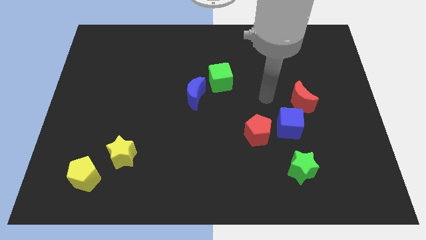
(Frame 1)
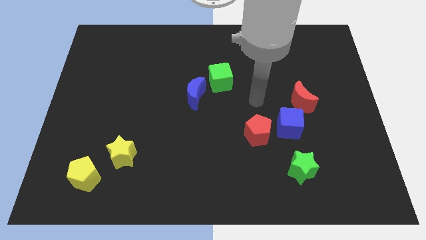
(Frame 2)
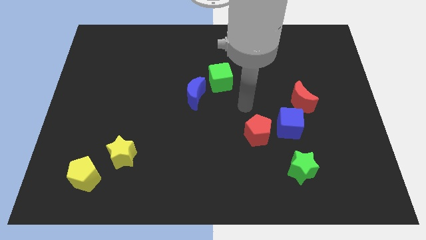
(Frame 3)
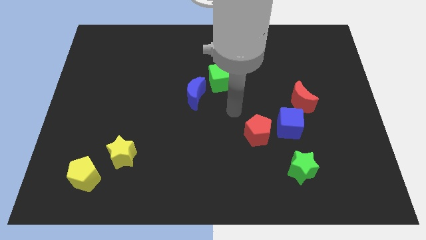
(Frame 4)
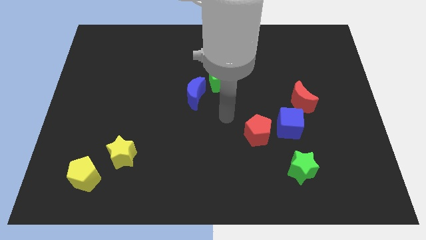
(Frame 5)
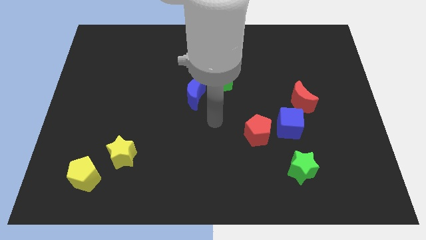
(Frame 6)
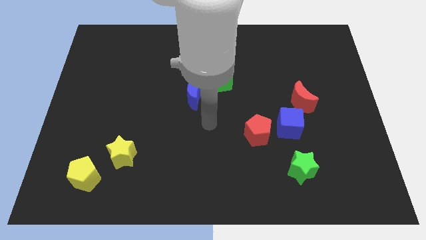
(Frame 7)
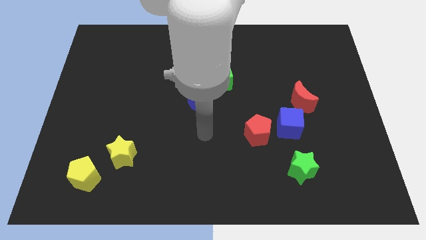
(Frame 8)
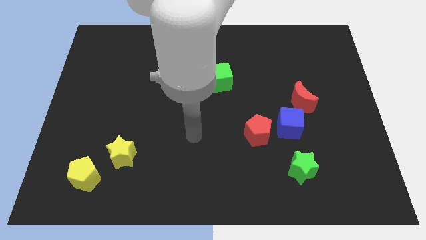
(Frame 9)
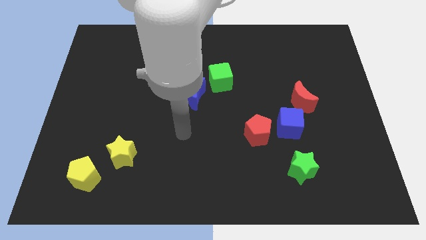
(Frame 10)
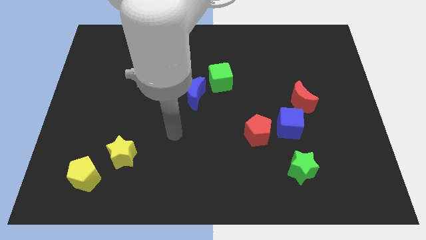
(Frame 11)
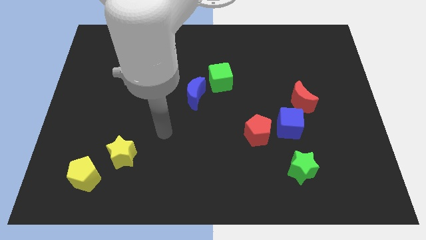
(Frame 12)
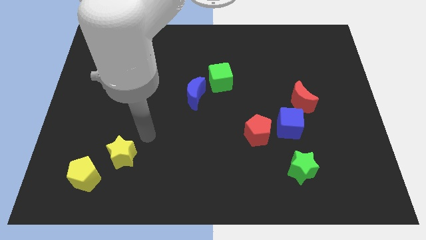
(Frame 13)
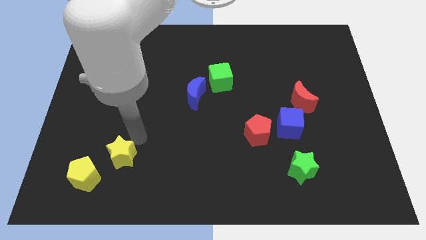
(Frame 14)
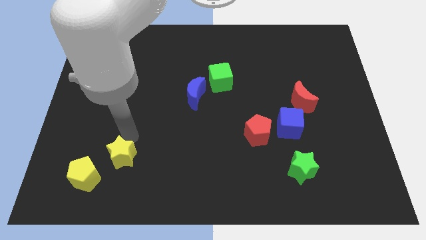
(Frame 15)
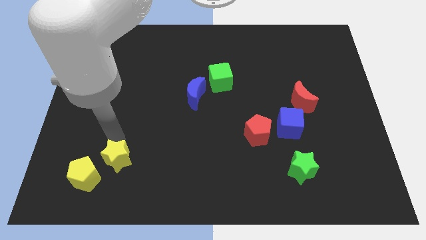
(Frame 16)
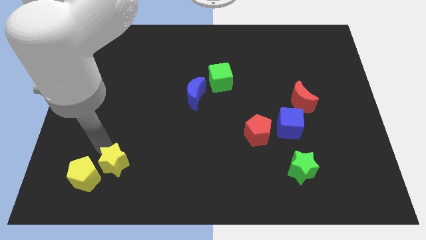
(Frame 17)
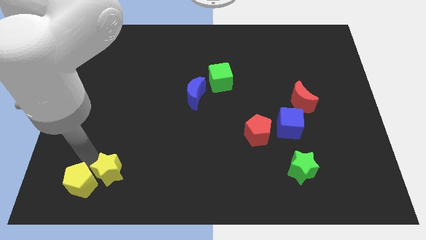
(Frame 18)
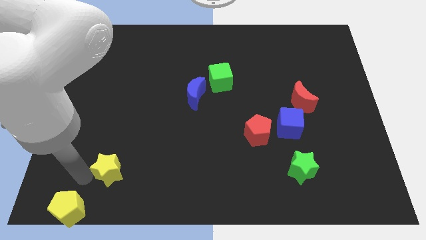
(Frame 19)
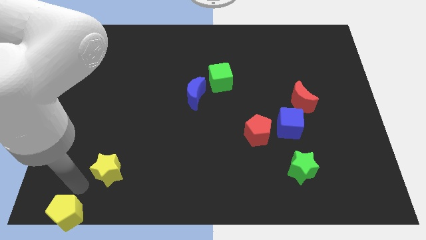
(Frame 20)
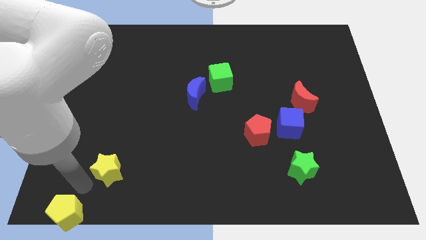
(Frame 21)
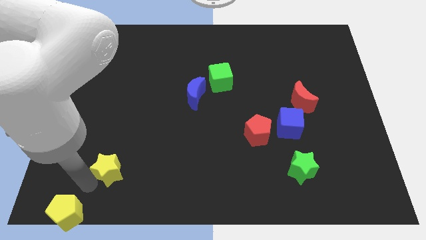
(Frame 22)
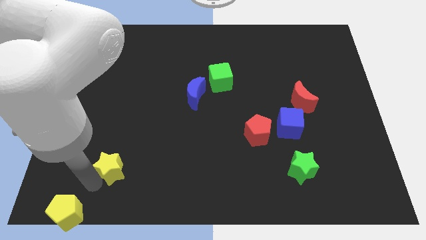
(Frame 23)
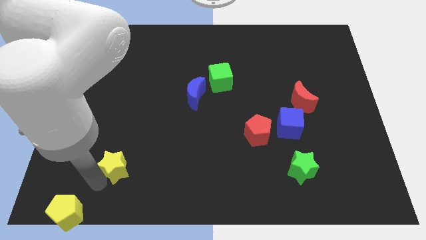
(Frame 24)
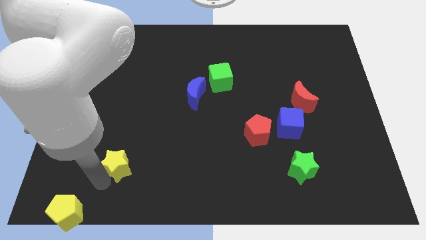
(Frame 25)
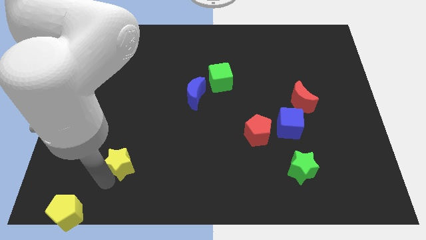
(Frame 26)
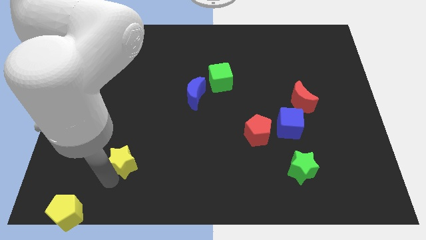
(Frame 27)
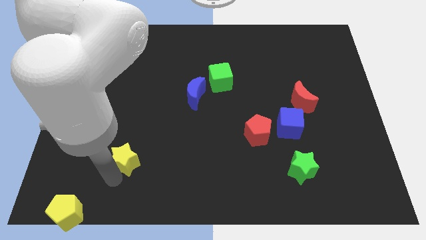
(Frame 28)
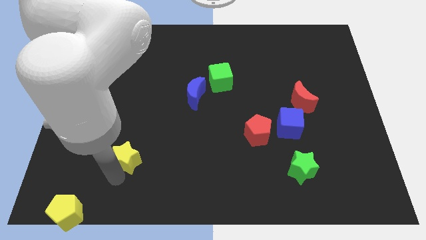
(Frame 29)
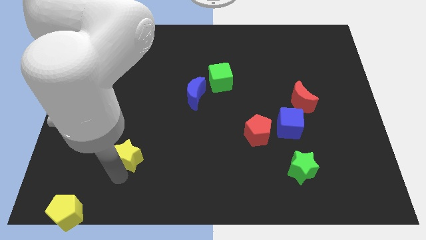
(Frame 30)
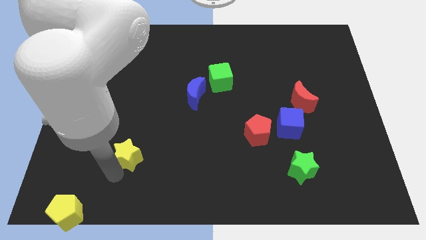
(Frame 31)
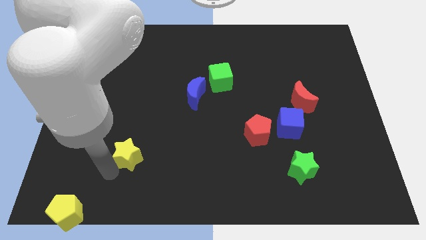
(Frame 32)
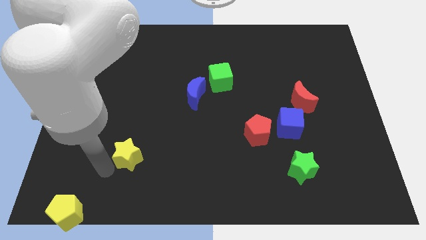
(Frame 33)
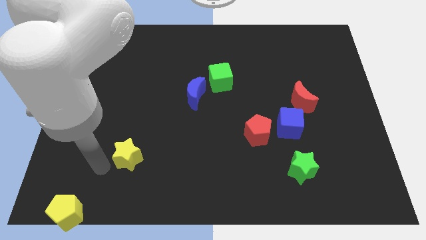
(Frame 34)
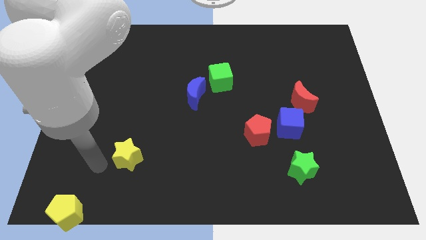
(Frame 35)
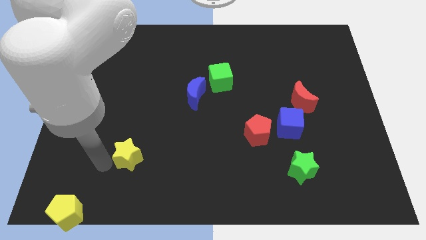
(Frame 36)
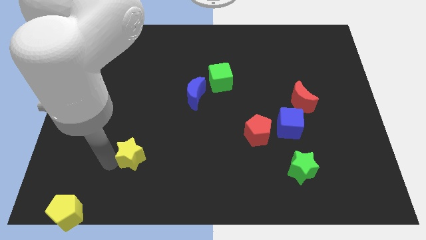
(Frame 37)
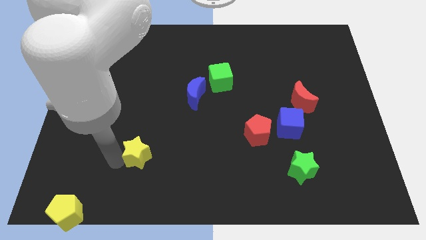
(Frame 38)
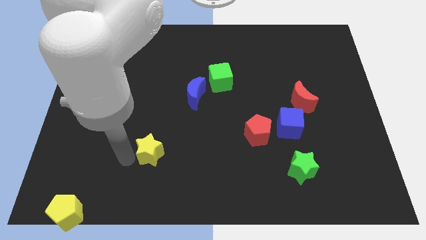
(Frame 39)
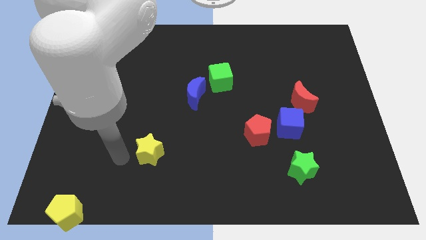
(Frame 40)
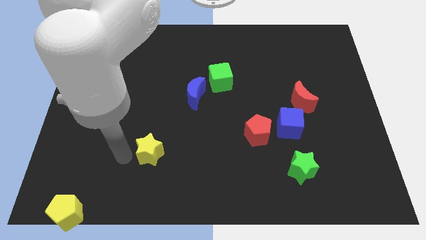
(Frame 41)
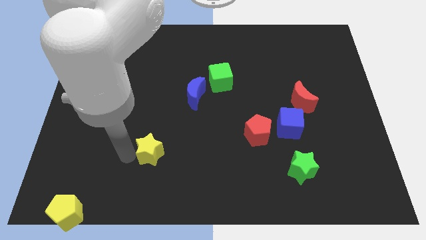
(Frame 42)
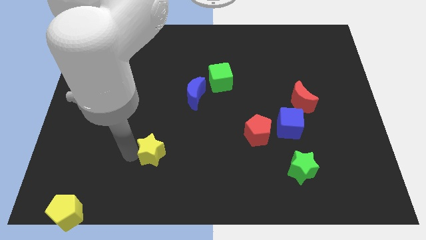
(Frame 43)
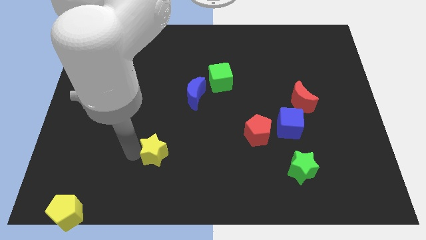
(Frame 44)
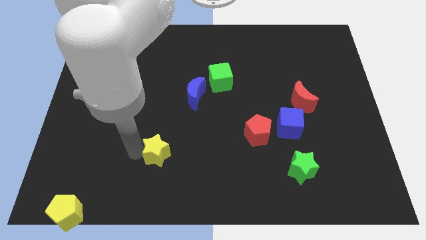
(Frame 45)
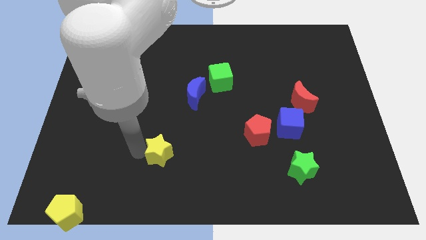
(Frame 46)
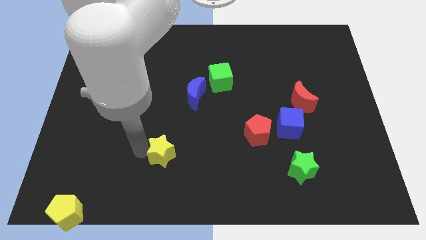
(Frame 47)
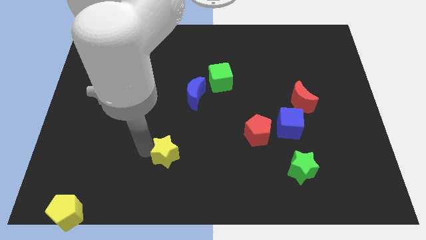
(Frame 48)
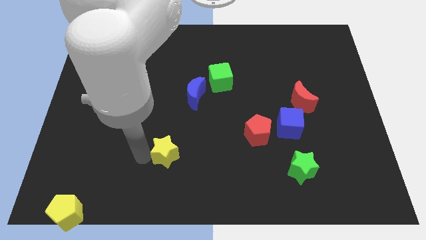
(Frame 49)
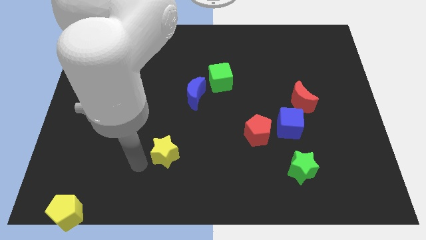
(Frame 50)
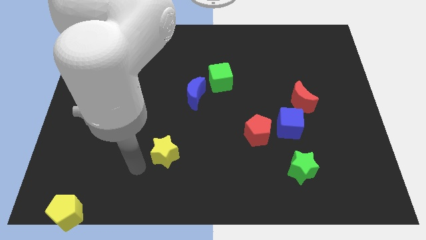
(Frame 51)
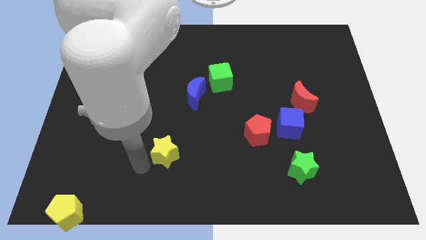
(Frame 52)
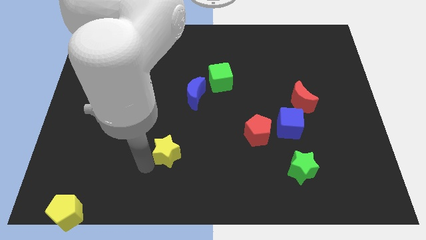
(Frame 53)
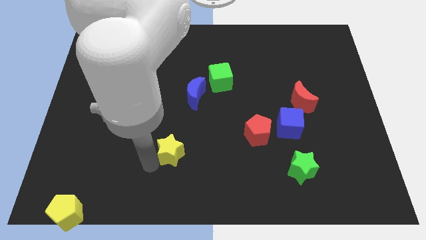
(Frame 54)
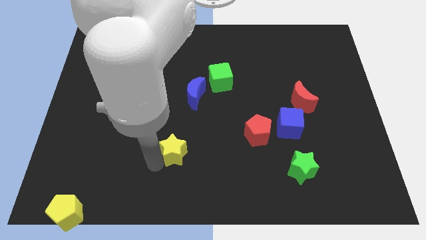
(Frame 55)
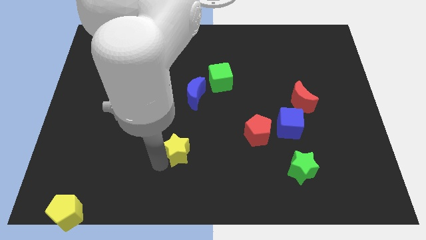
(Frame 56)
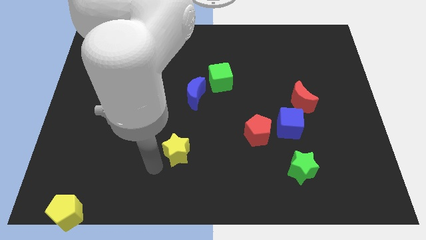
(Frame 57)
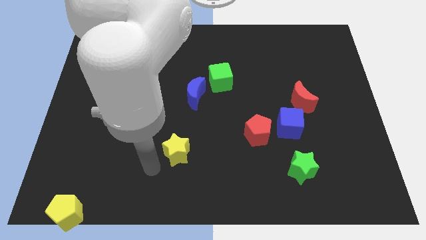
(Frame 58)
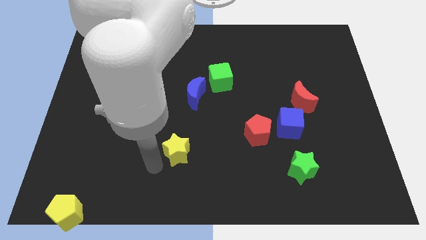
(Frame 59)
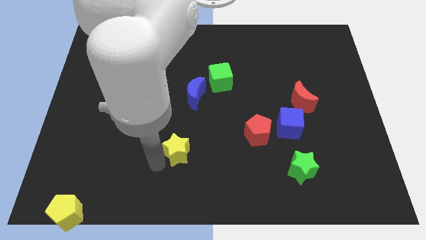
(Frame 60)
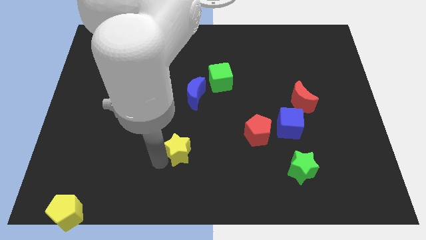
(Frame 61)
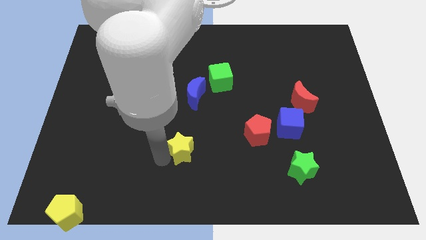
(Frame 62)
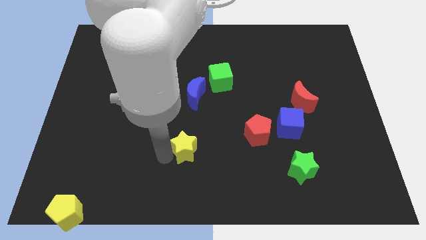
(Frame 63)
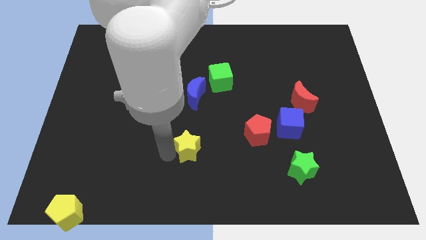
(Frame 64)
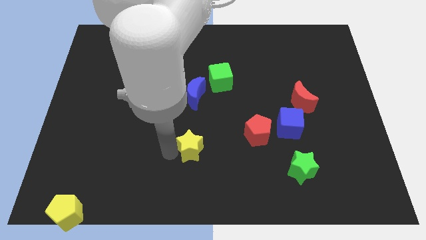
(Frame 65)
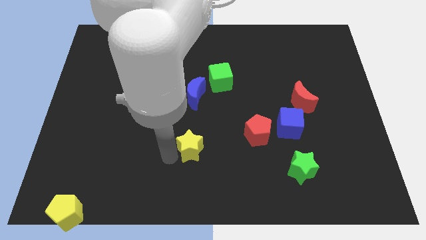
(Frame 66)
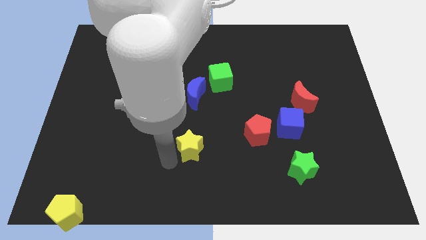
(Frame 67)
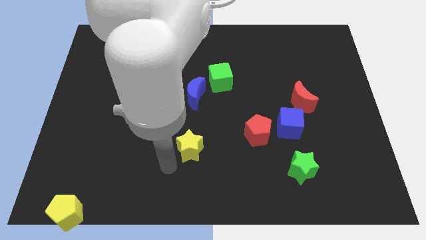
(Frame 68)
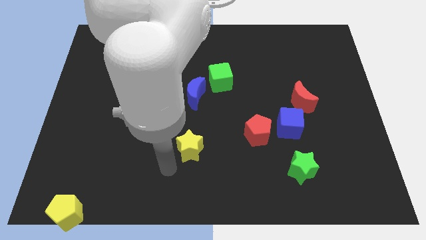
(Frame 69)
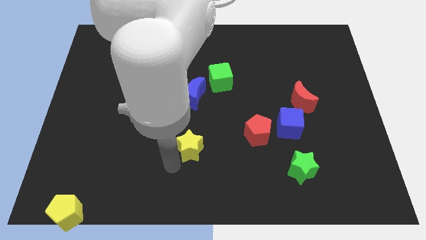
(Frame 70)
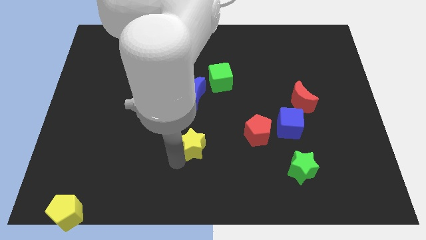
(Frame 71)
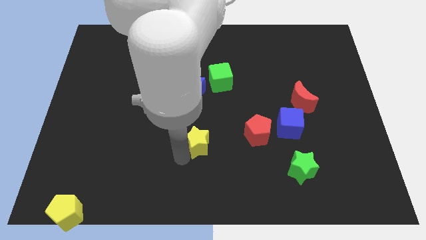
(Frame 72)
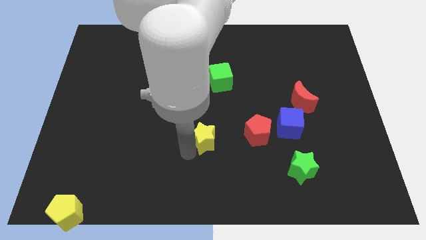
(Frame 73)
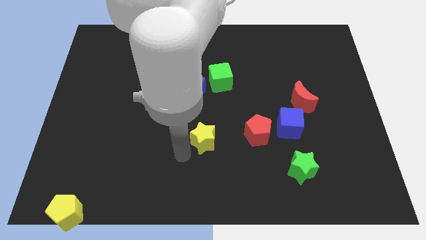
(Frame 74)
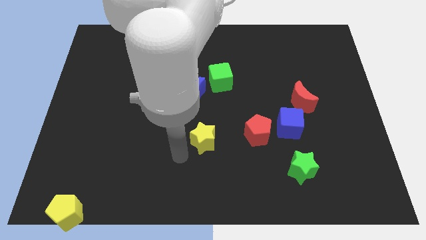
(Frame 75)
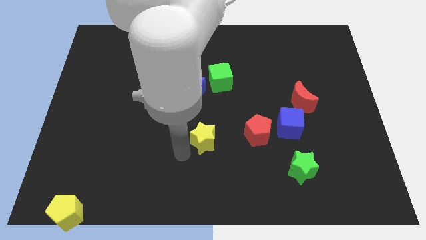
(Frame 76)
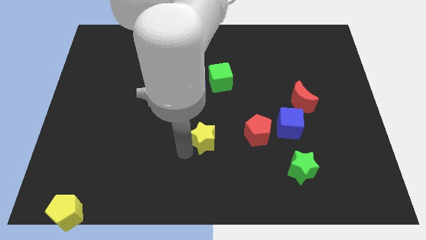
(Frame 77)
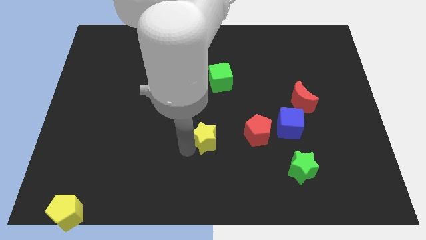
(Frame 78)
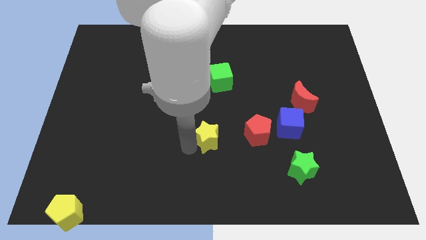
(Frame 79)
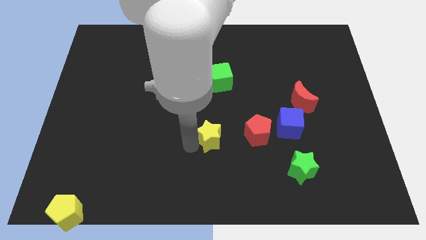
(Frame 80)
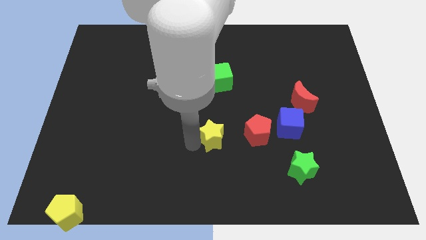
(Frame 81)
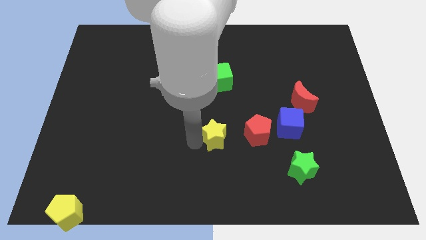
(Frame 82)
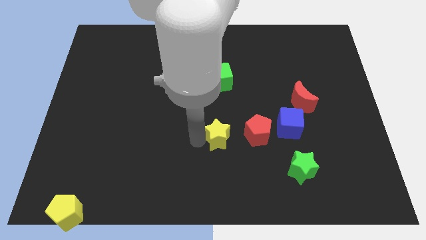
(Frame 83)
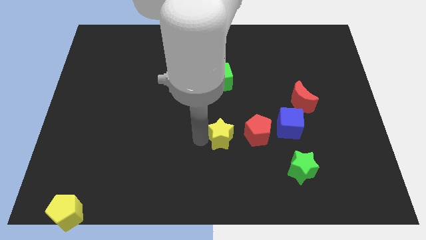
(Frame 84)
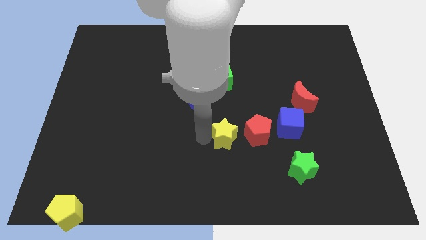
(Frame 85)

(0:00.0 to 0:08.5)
push the yellow star to the left side of the blue cube
